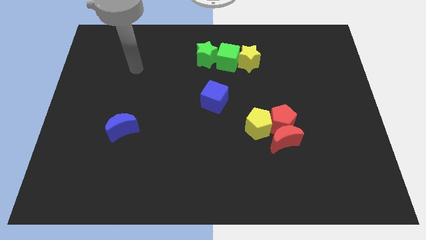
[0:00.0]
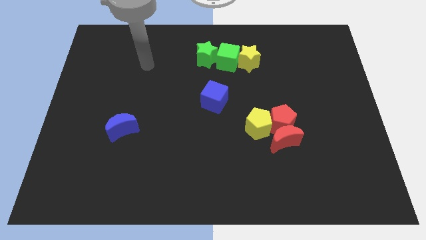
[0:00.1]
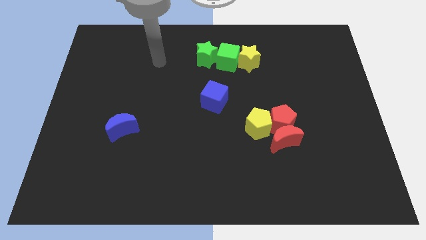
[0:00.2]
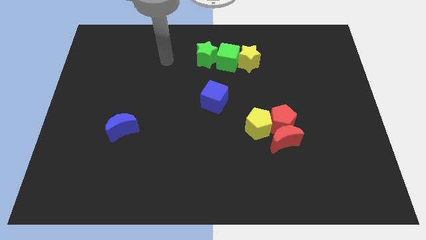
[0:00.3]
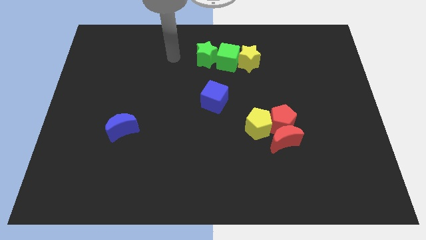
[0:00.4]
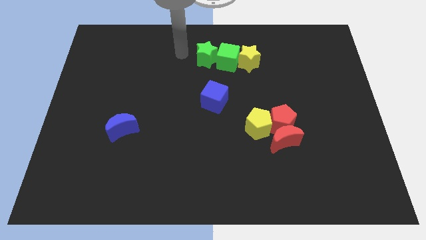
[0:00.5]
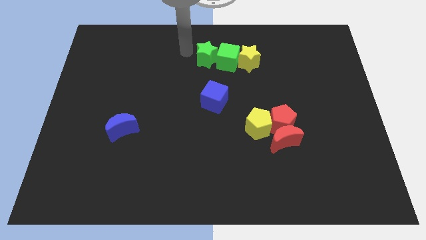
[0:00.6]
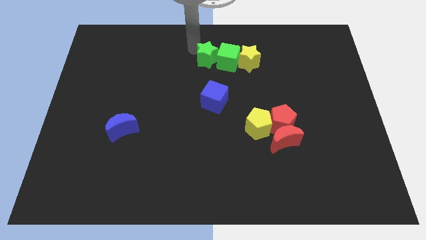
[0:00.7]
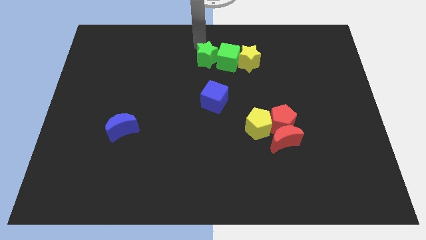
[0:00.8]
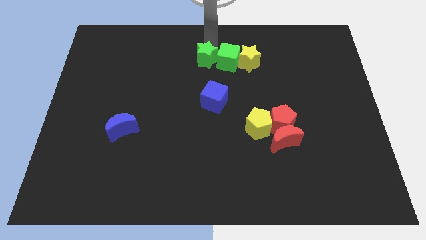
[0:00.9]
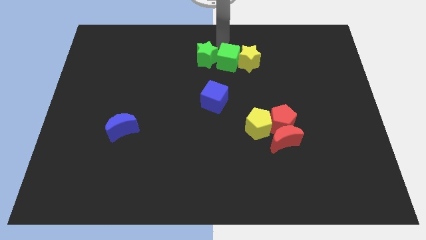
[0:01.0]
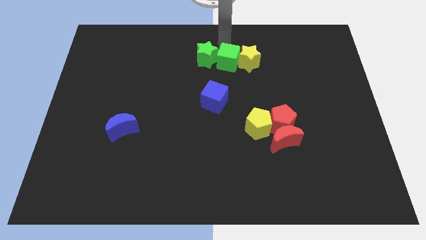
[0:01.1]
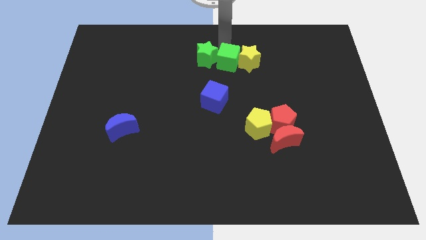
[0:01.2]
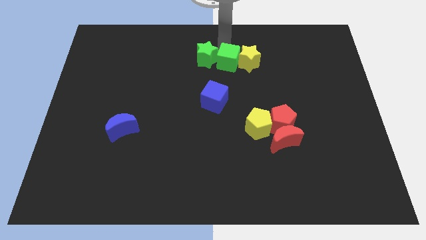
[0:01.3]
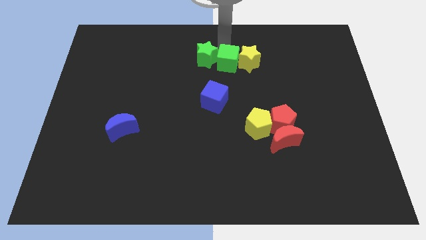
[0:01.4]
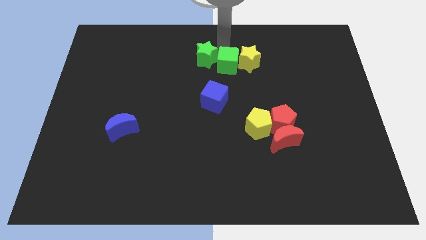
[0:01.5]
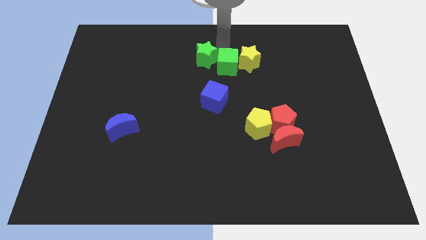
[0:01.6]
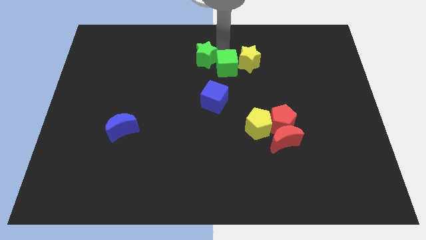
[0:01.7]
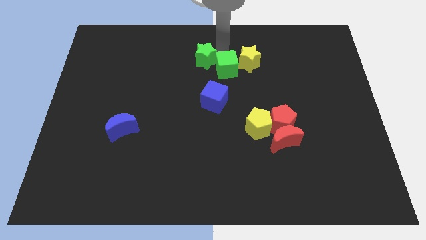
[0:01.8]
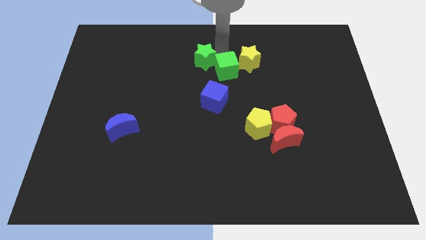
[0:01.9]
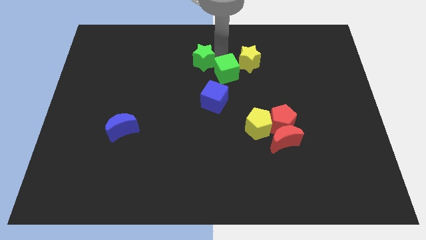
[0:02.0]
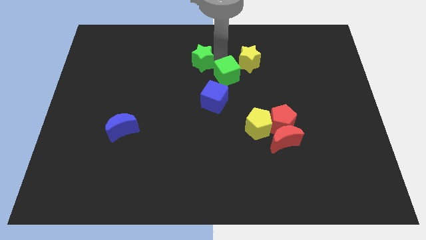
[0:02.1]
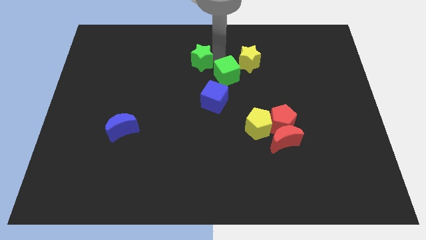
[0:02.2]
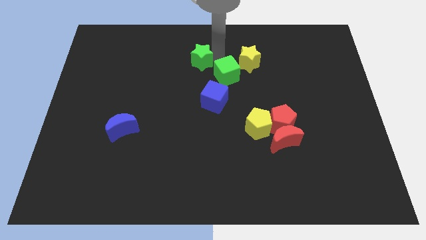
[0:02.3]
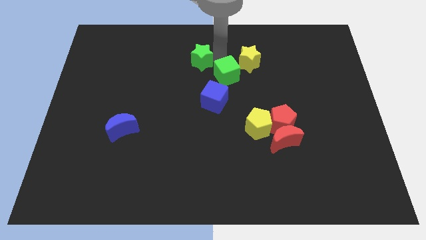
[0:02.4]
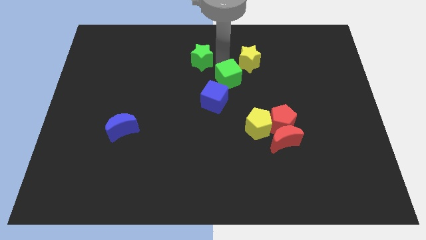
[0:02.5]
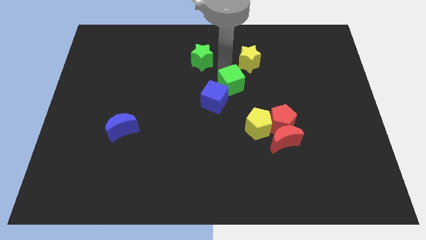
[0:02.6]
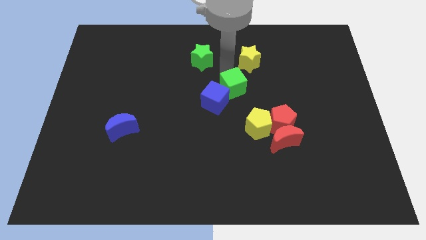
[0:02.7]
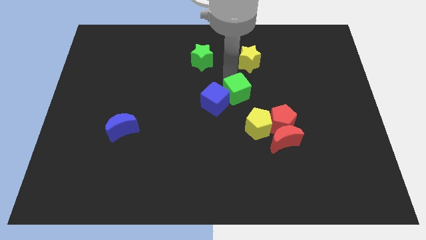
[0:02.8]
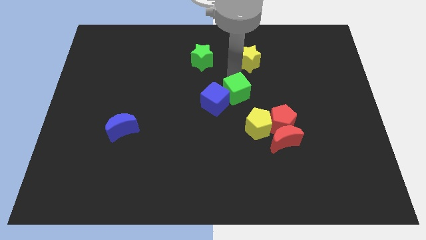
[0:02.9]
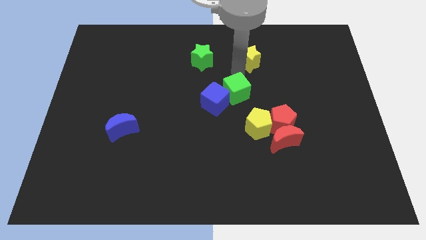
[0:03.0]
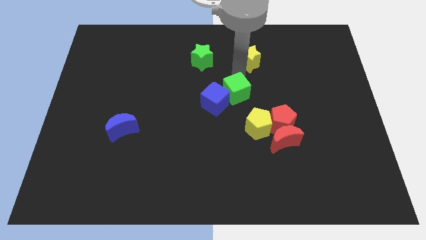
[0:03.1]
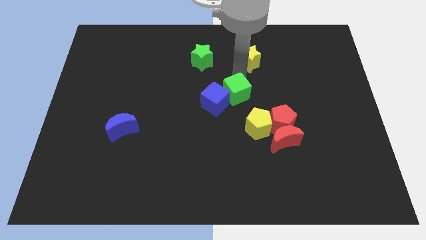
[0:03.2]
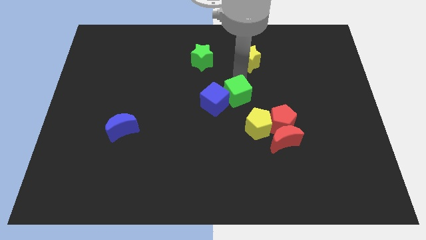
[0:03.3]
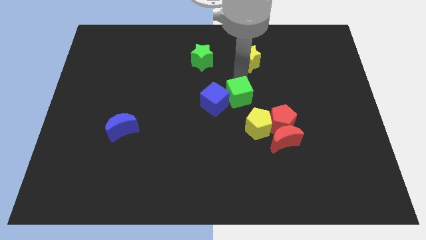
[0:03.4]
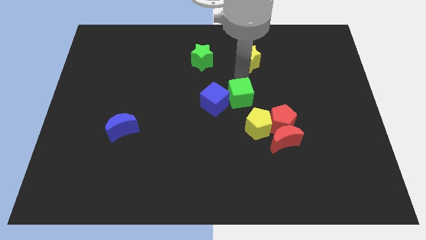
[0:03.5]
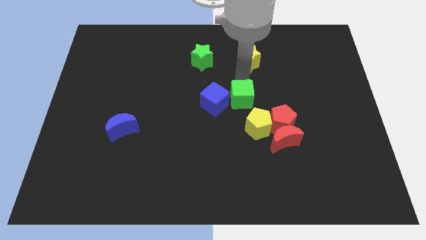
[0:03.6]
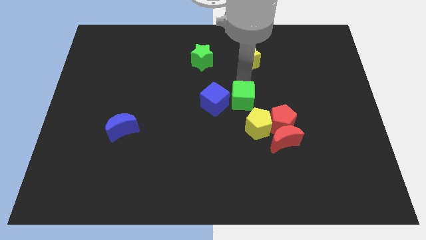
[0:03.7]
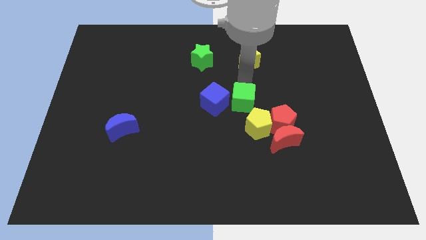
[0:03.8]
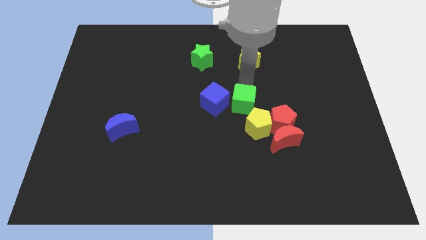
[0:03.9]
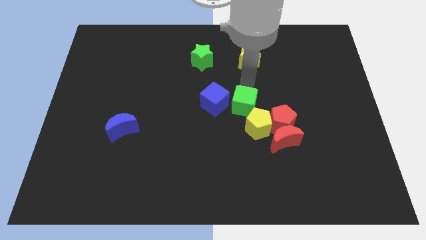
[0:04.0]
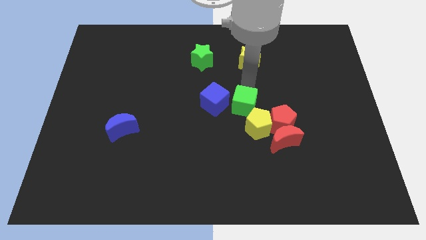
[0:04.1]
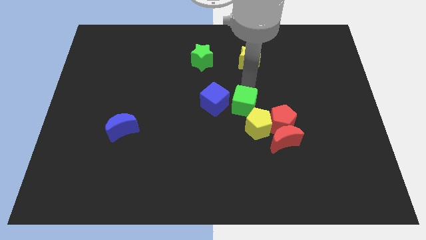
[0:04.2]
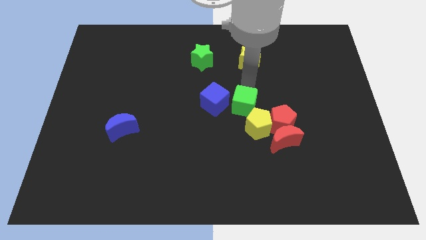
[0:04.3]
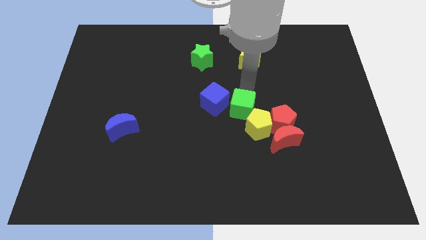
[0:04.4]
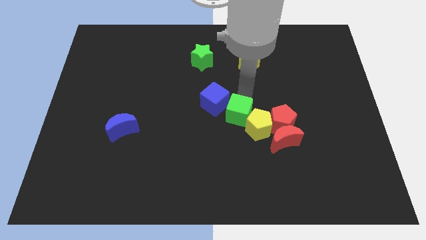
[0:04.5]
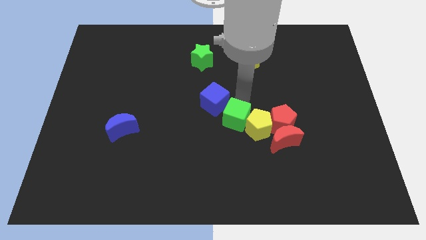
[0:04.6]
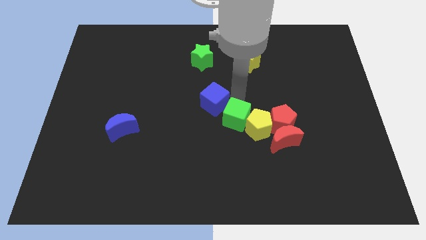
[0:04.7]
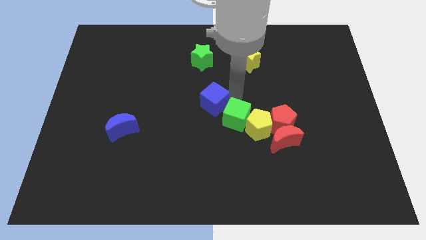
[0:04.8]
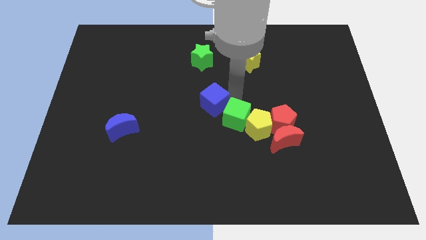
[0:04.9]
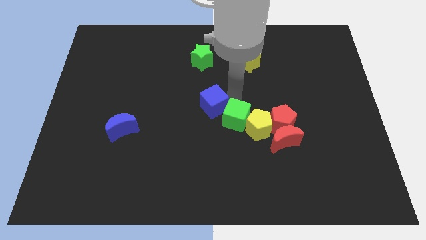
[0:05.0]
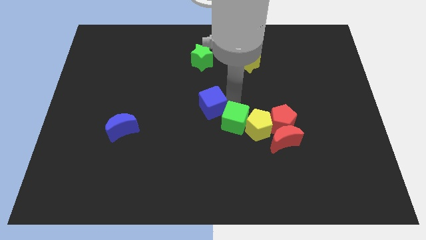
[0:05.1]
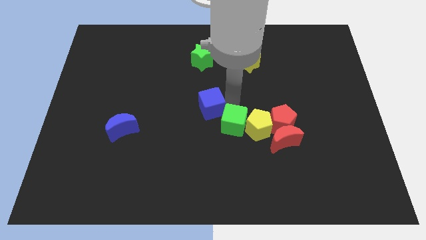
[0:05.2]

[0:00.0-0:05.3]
move the green cube down

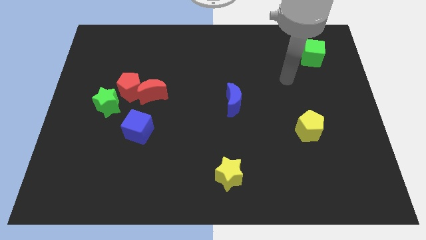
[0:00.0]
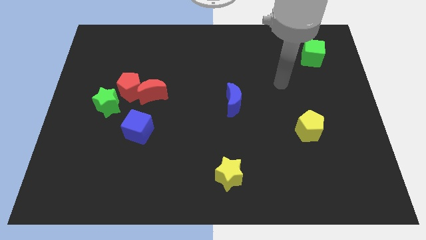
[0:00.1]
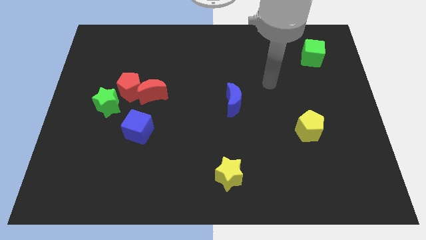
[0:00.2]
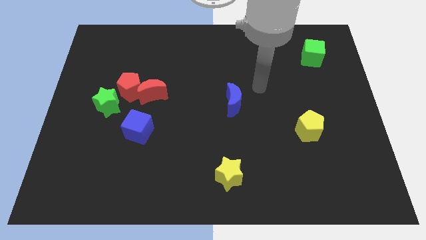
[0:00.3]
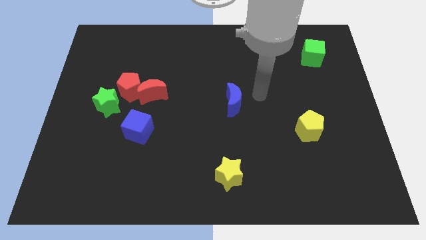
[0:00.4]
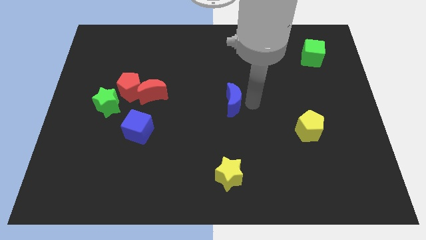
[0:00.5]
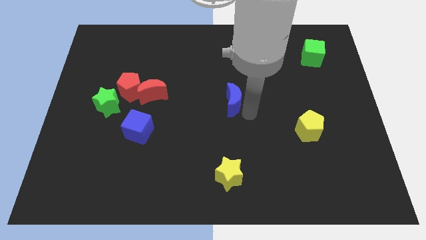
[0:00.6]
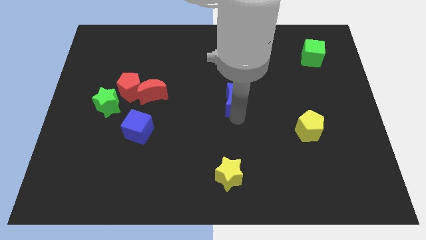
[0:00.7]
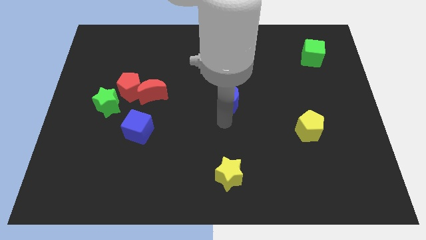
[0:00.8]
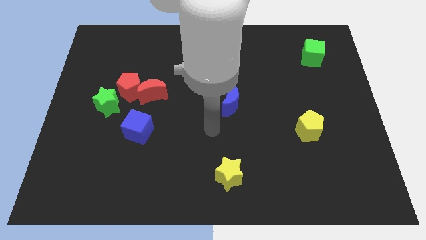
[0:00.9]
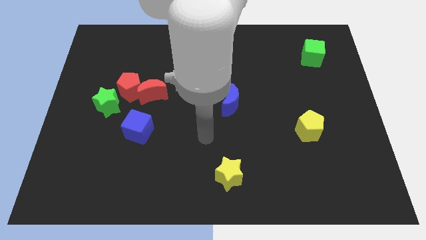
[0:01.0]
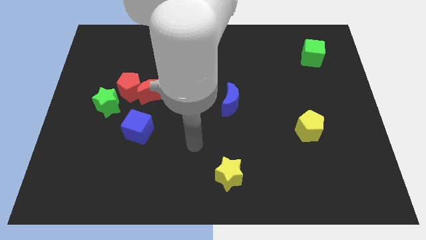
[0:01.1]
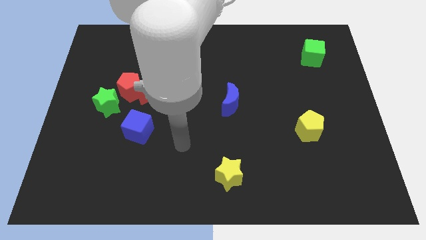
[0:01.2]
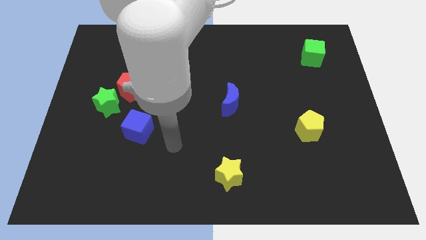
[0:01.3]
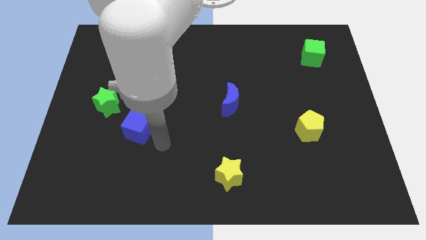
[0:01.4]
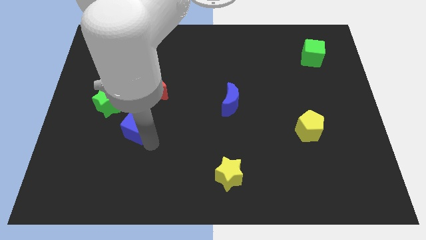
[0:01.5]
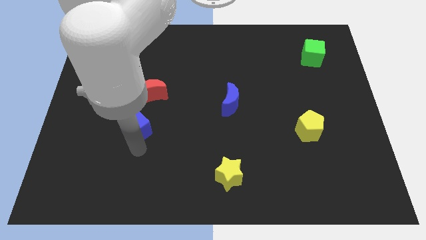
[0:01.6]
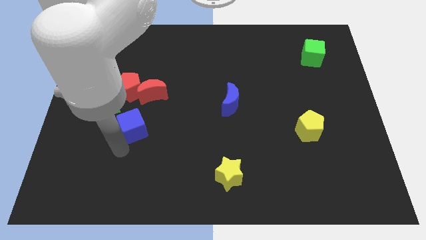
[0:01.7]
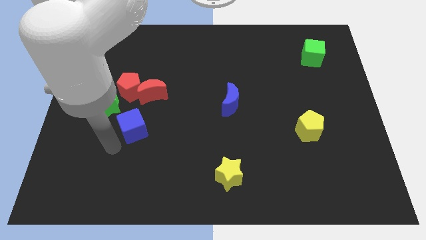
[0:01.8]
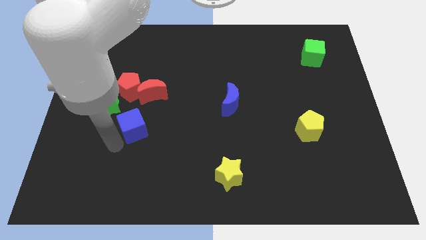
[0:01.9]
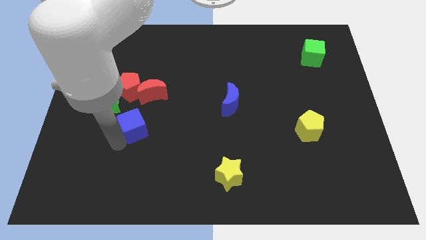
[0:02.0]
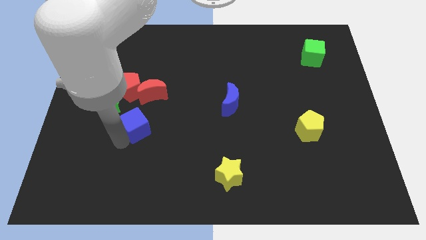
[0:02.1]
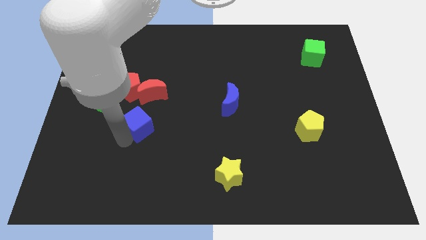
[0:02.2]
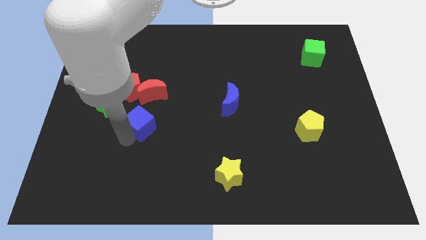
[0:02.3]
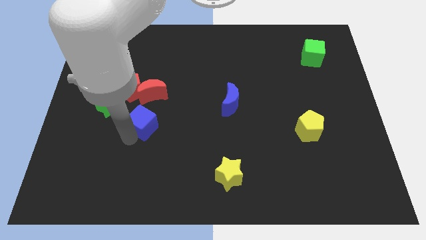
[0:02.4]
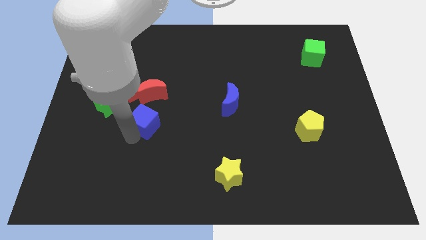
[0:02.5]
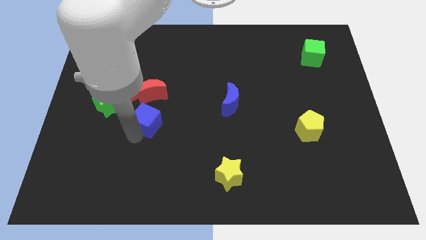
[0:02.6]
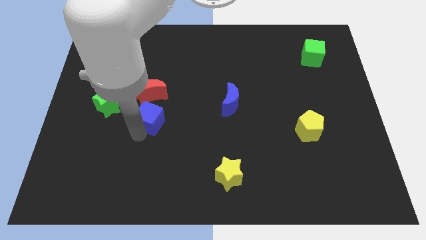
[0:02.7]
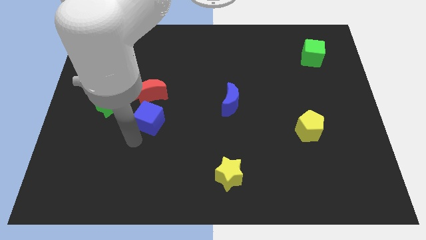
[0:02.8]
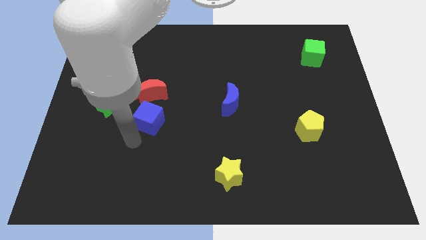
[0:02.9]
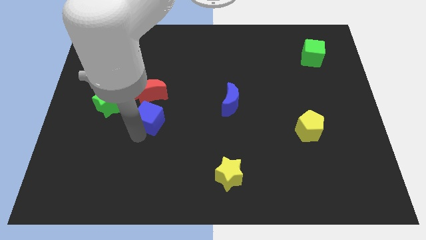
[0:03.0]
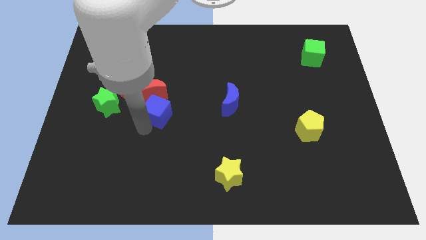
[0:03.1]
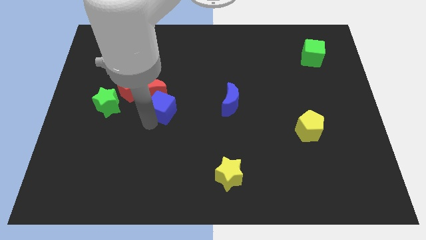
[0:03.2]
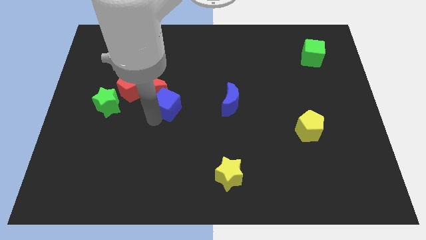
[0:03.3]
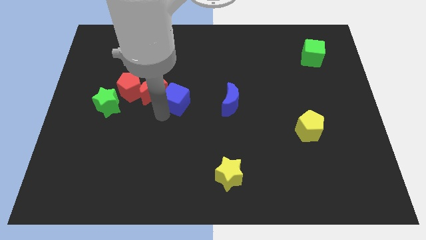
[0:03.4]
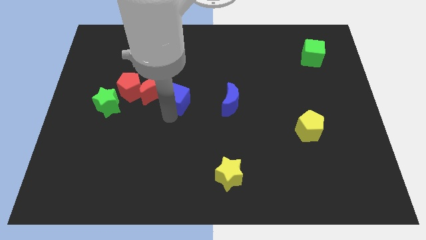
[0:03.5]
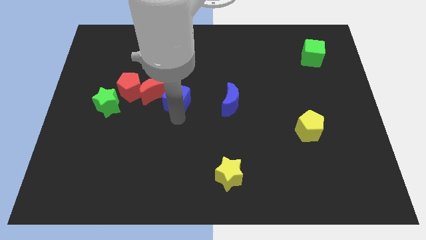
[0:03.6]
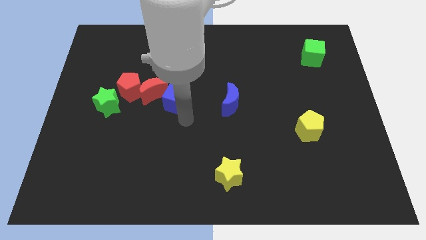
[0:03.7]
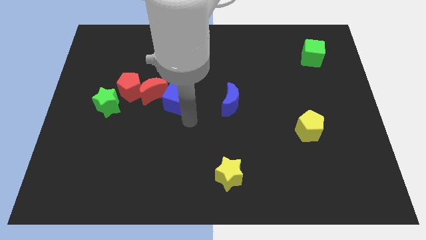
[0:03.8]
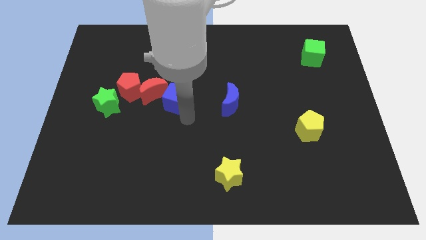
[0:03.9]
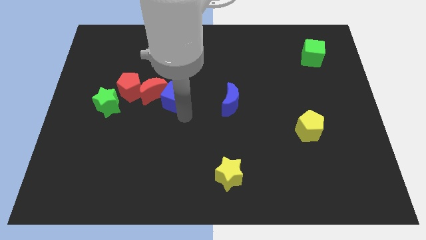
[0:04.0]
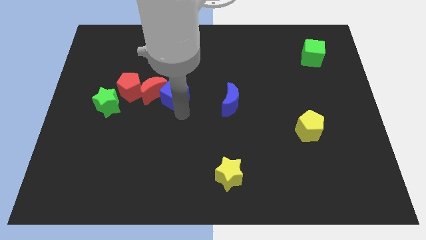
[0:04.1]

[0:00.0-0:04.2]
slightly slide the blue cube upwards
